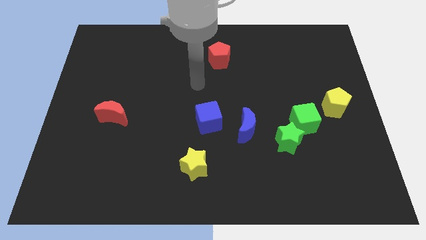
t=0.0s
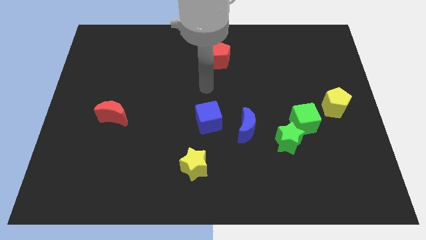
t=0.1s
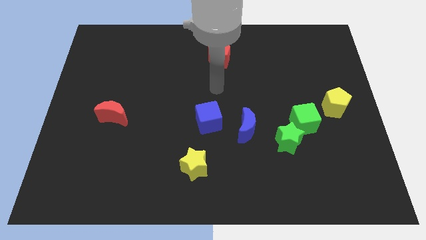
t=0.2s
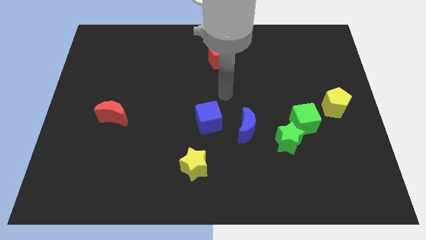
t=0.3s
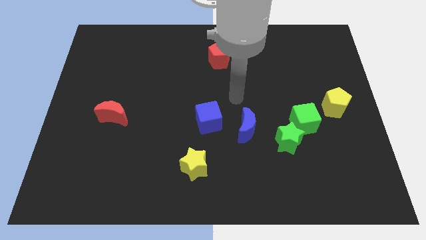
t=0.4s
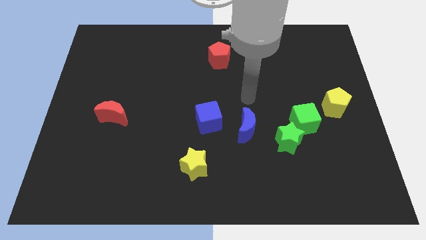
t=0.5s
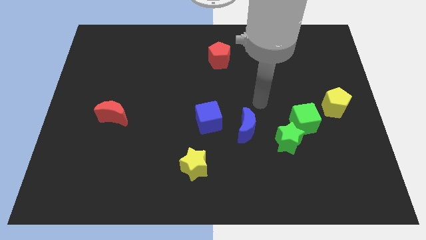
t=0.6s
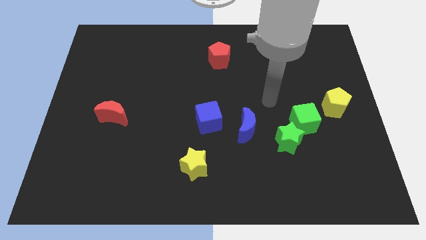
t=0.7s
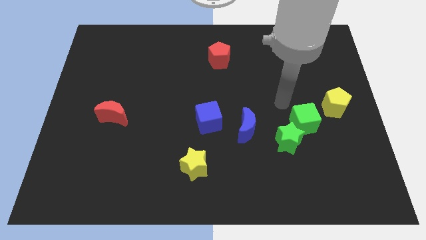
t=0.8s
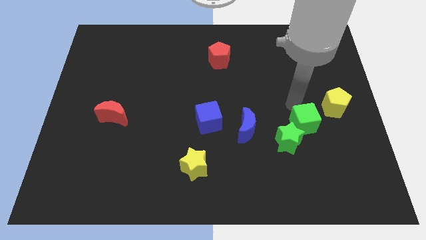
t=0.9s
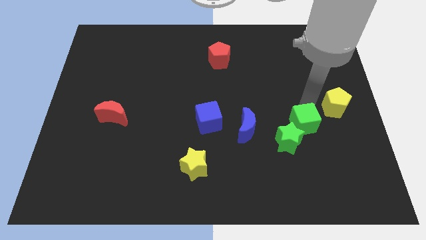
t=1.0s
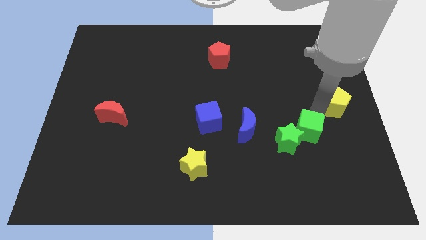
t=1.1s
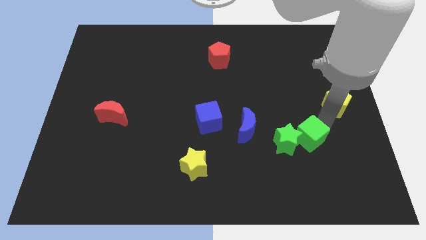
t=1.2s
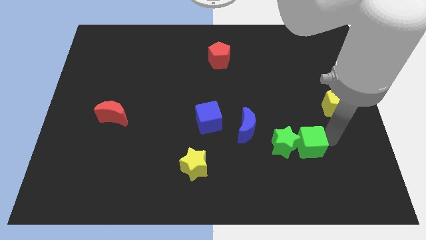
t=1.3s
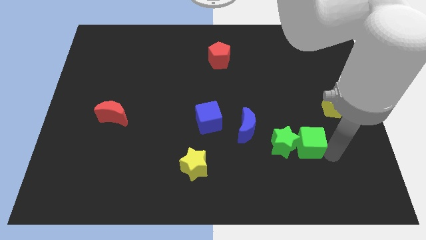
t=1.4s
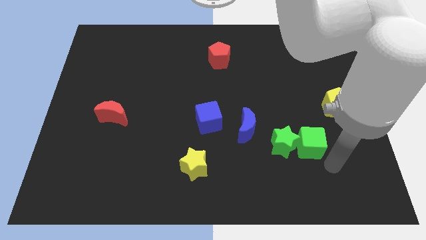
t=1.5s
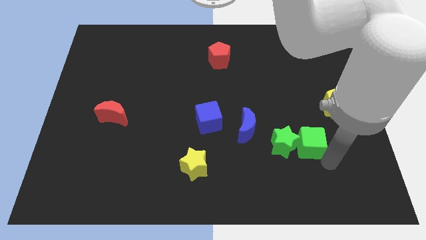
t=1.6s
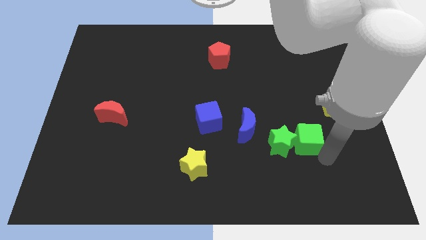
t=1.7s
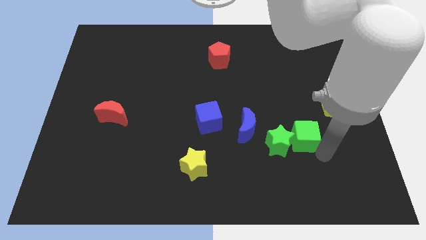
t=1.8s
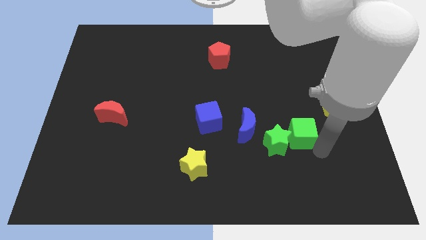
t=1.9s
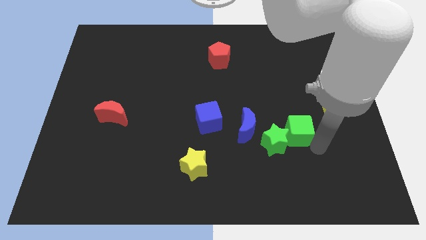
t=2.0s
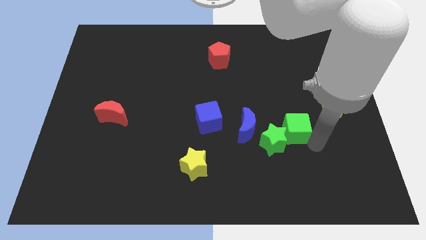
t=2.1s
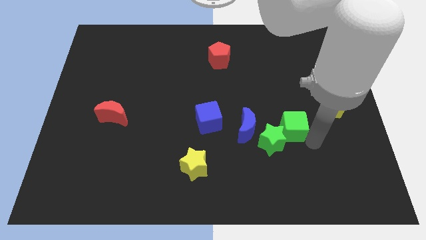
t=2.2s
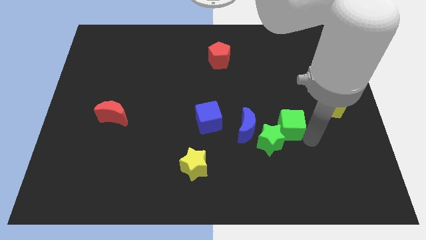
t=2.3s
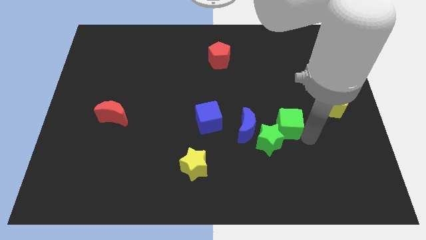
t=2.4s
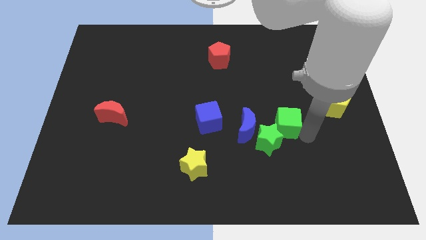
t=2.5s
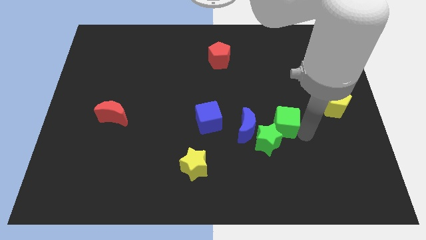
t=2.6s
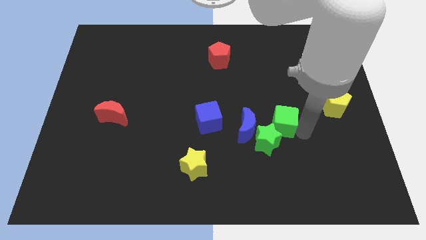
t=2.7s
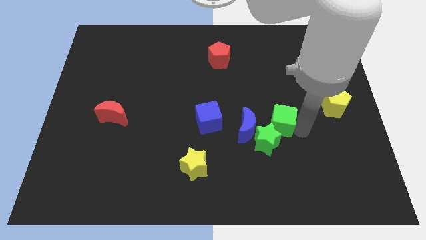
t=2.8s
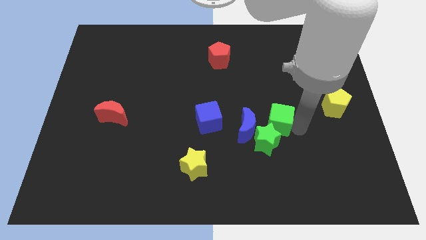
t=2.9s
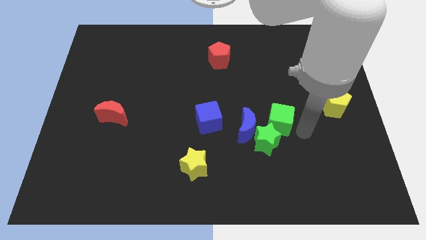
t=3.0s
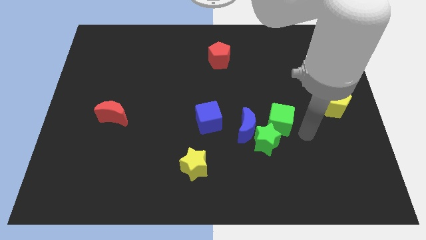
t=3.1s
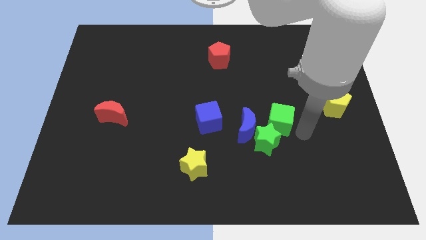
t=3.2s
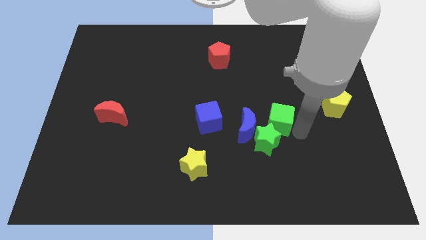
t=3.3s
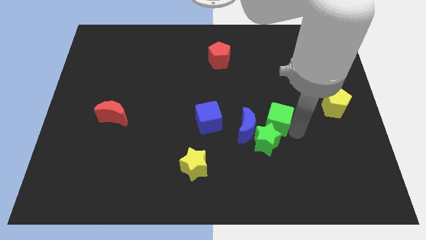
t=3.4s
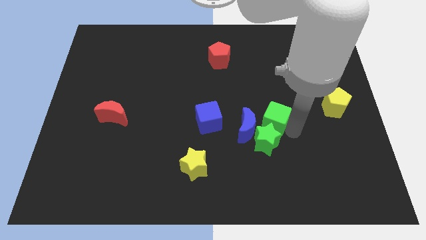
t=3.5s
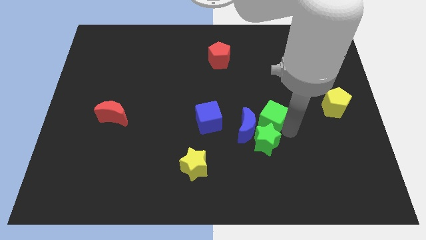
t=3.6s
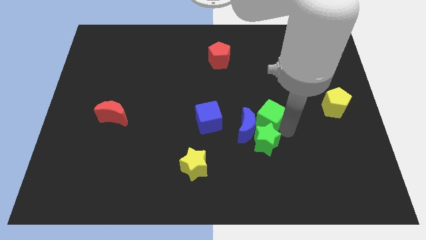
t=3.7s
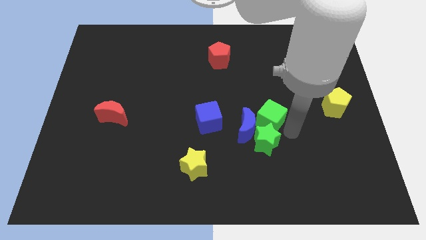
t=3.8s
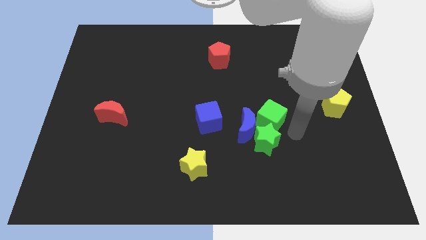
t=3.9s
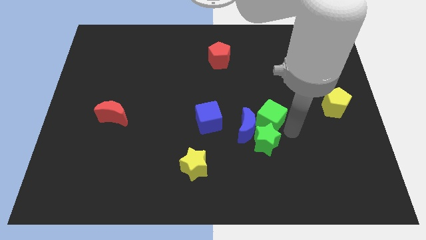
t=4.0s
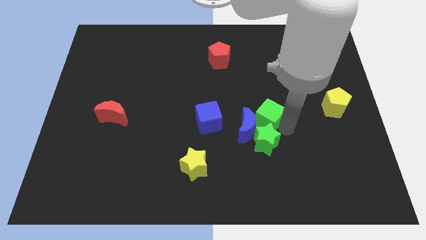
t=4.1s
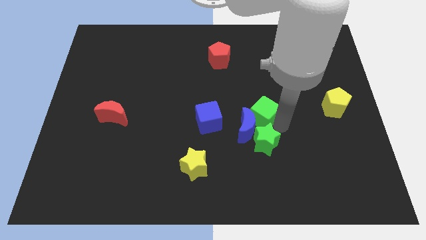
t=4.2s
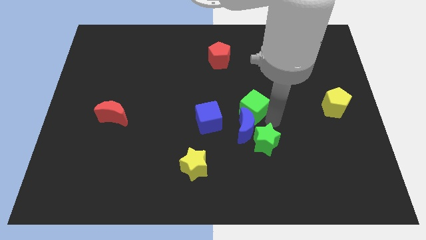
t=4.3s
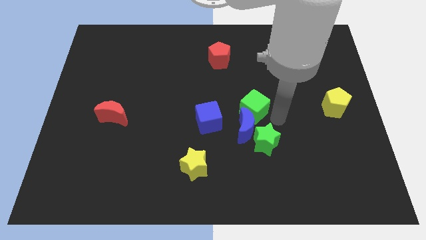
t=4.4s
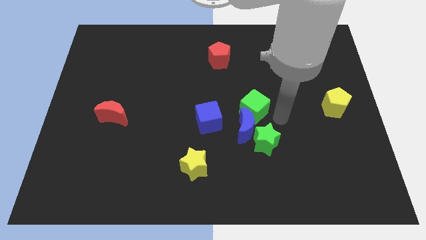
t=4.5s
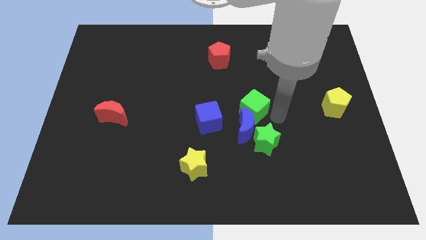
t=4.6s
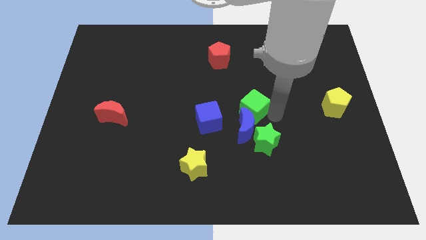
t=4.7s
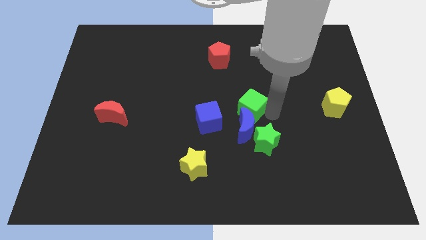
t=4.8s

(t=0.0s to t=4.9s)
slide the green cube to the top right side of the blue cube

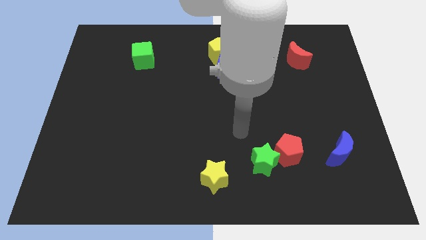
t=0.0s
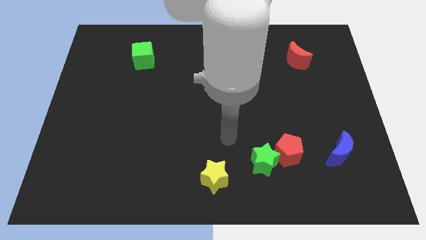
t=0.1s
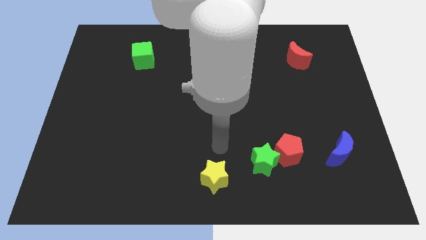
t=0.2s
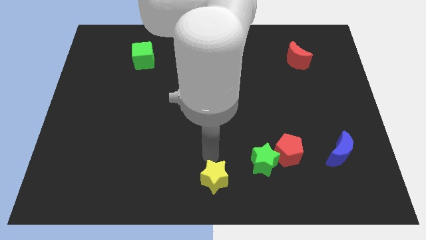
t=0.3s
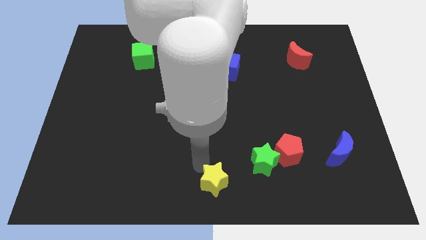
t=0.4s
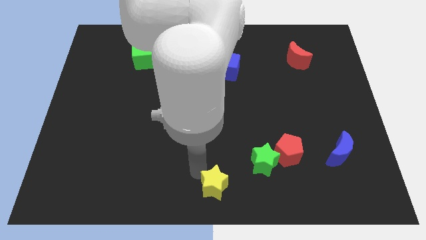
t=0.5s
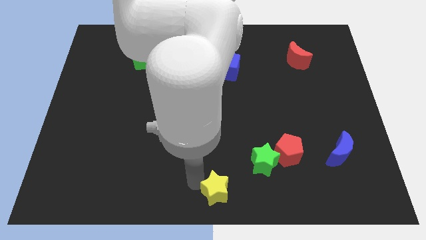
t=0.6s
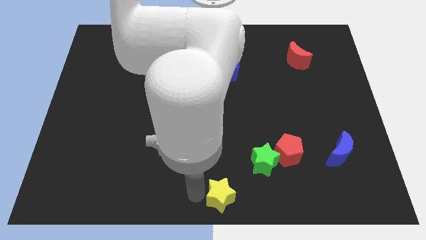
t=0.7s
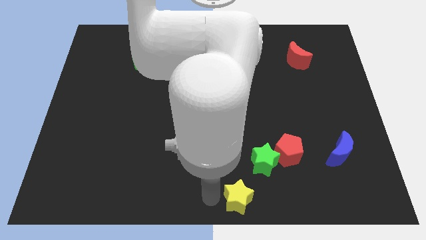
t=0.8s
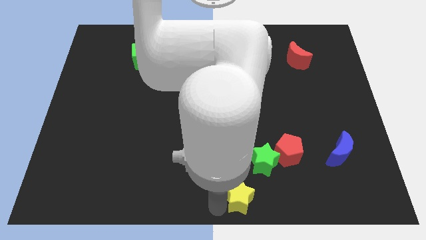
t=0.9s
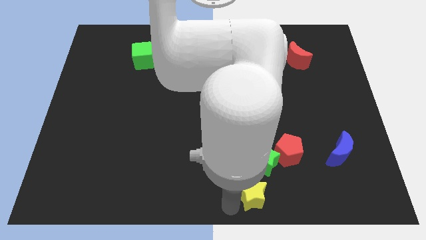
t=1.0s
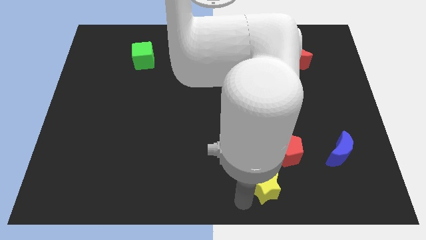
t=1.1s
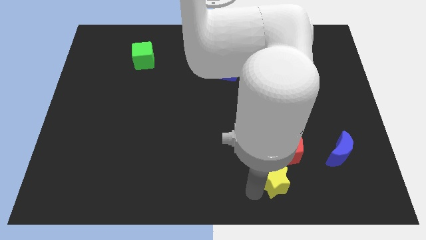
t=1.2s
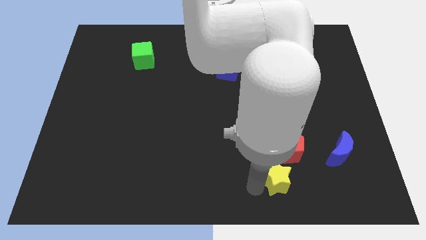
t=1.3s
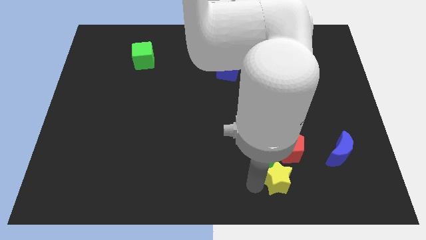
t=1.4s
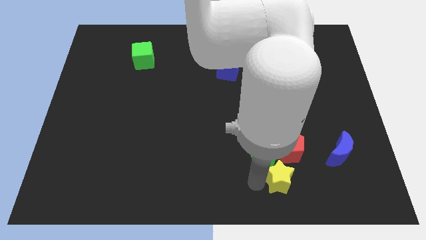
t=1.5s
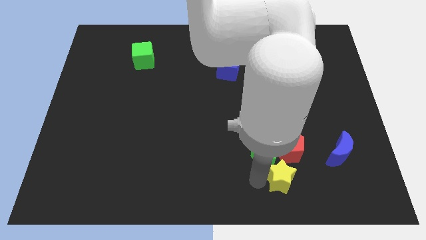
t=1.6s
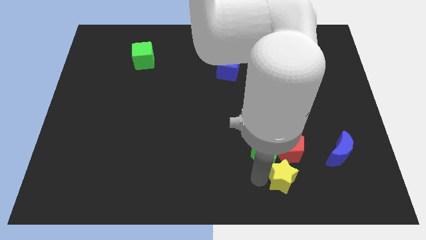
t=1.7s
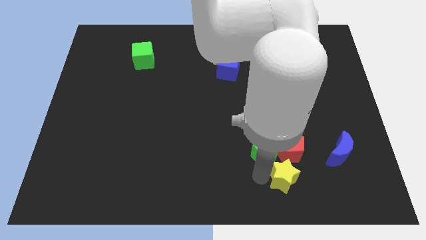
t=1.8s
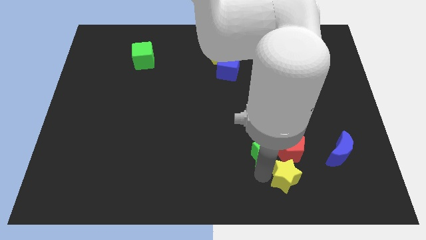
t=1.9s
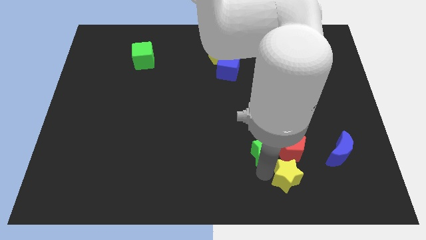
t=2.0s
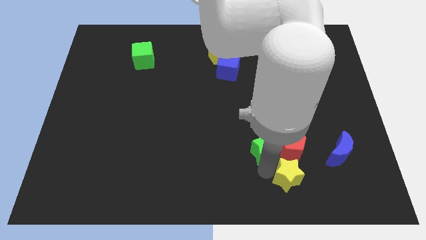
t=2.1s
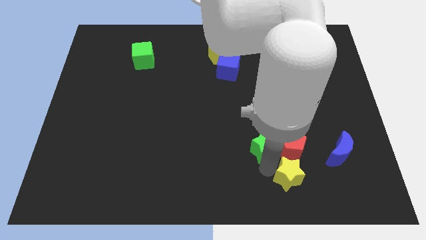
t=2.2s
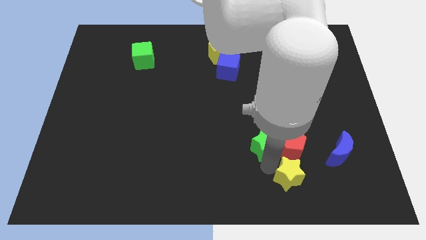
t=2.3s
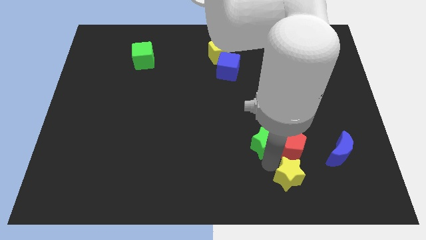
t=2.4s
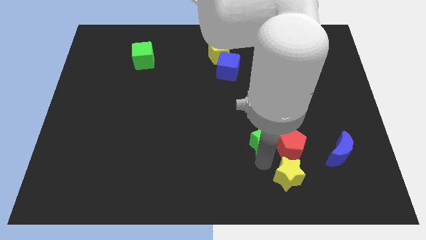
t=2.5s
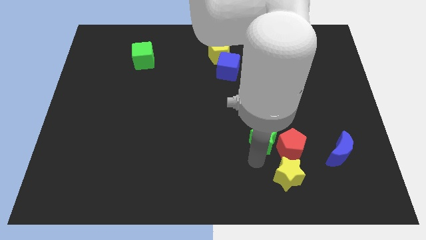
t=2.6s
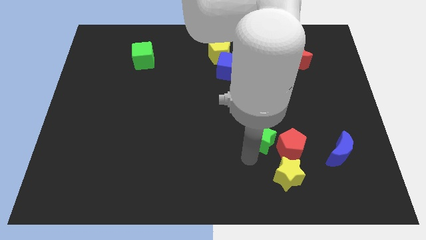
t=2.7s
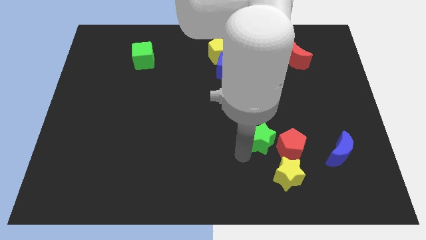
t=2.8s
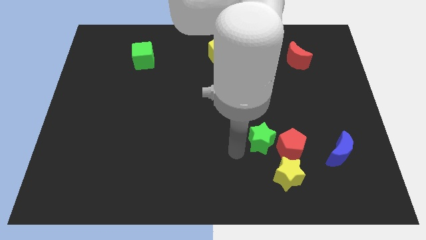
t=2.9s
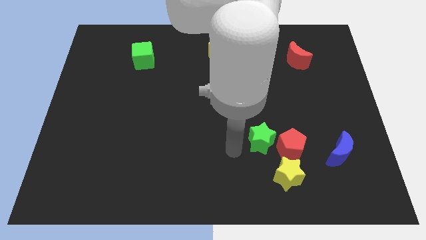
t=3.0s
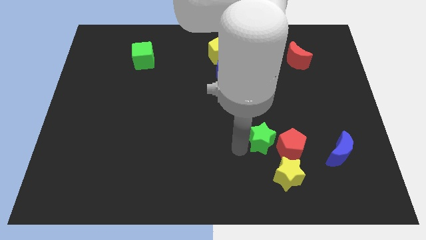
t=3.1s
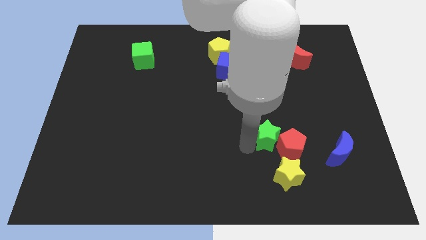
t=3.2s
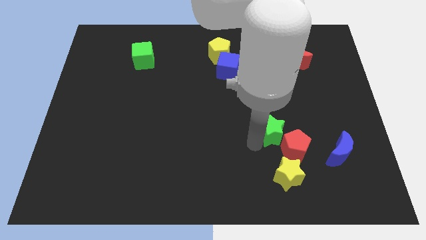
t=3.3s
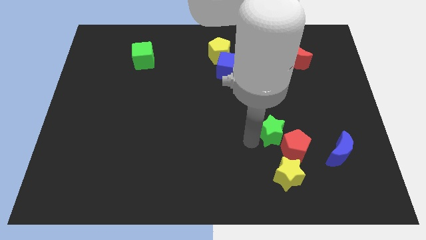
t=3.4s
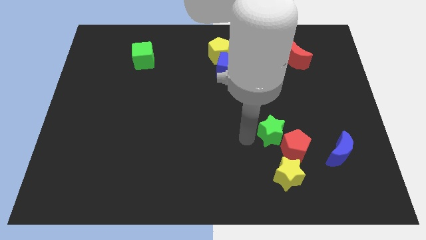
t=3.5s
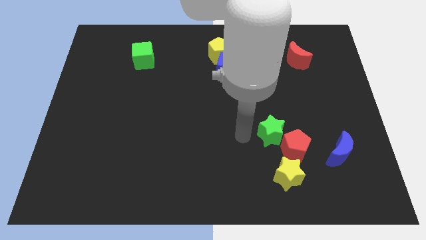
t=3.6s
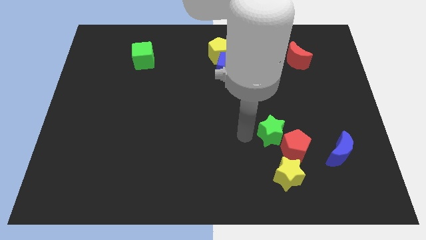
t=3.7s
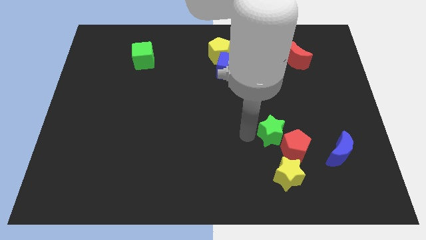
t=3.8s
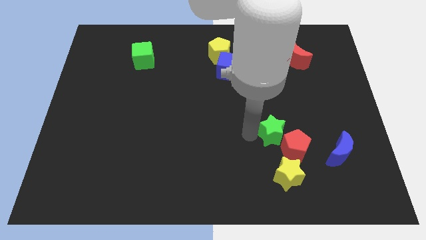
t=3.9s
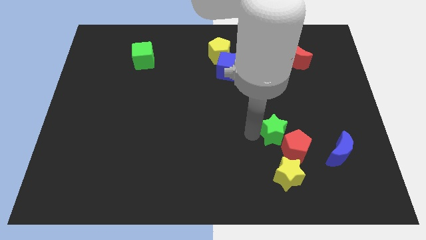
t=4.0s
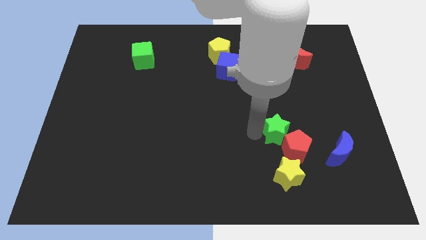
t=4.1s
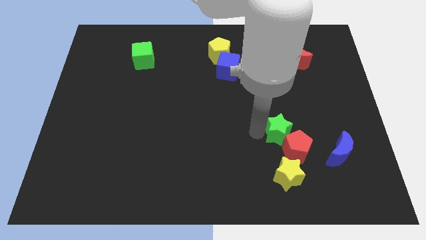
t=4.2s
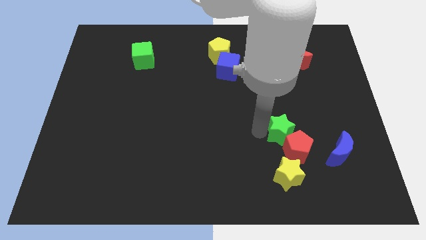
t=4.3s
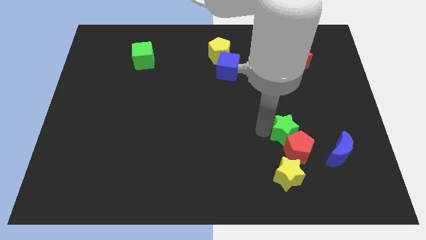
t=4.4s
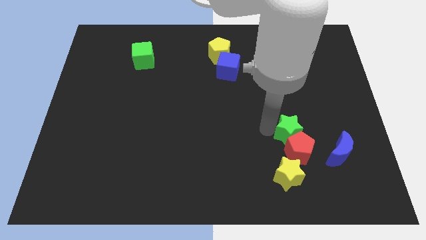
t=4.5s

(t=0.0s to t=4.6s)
push the green star to the top right of the red pentagon
